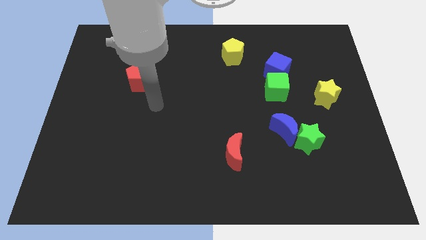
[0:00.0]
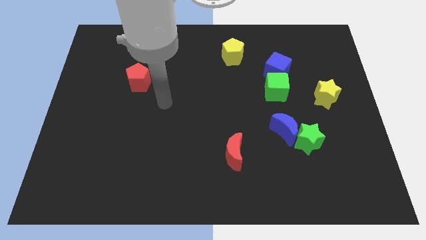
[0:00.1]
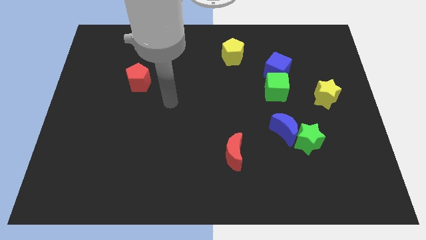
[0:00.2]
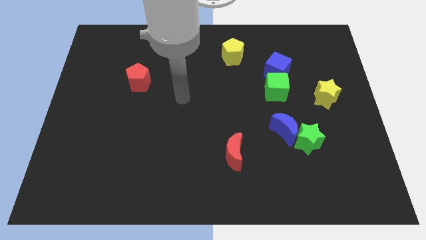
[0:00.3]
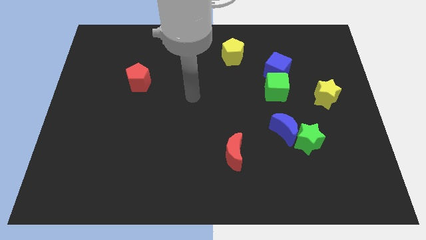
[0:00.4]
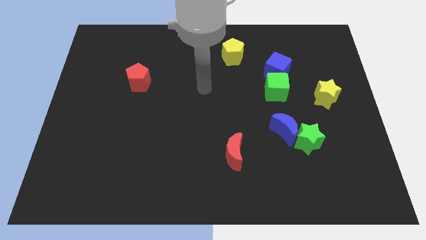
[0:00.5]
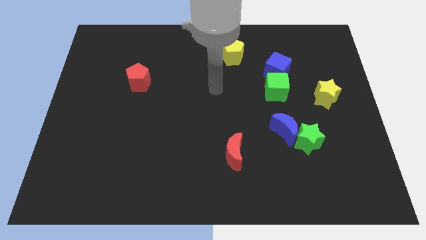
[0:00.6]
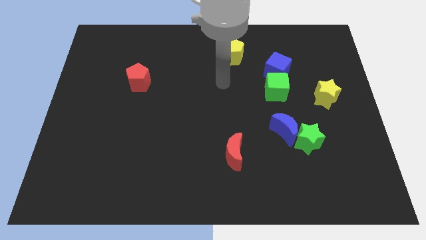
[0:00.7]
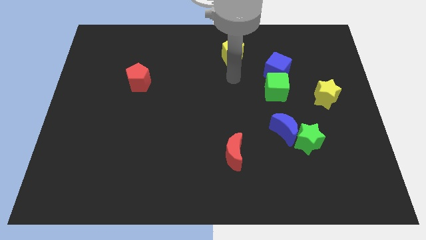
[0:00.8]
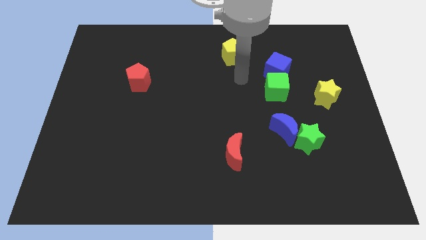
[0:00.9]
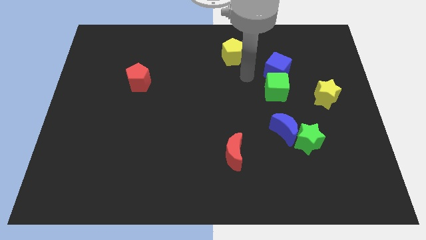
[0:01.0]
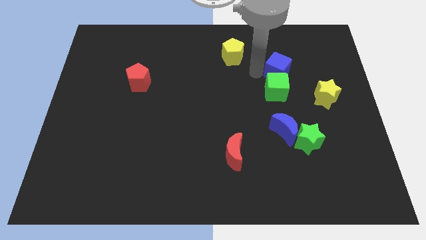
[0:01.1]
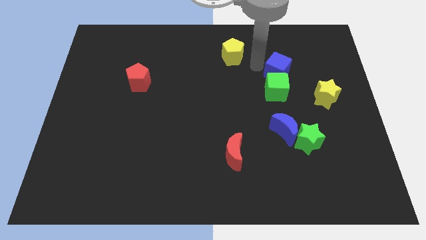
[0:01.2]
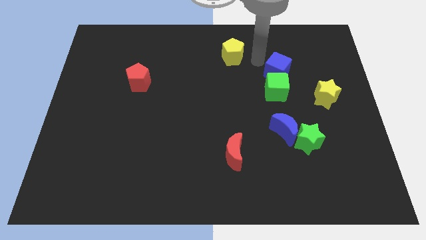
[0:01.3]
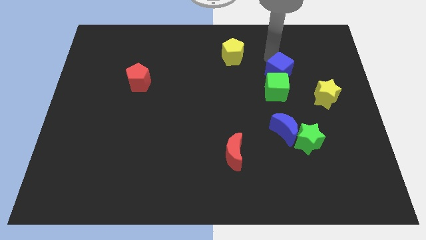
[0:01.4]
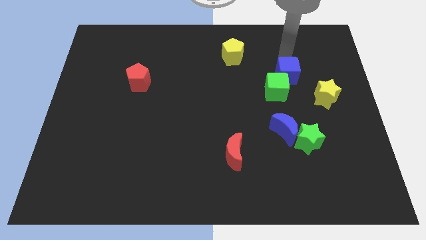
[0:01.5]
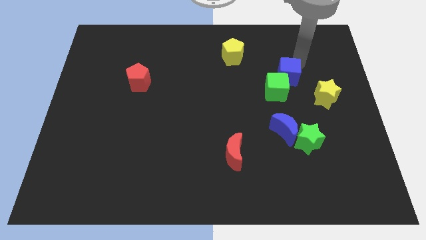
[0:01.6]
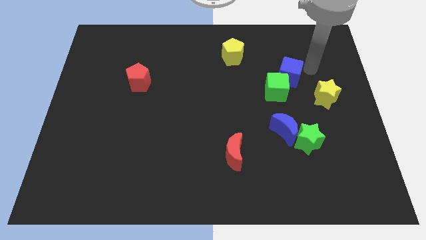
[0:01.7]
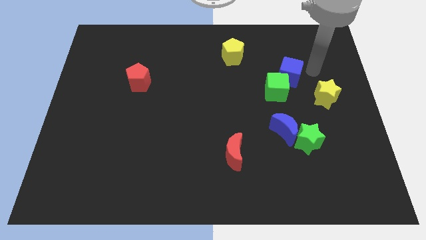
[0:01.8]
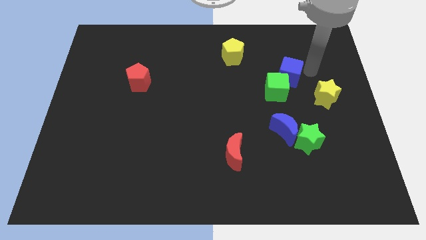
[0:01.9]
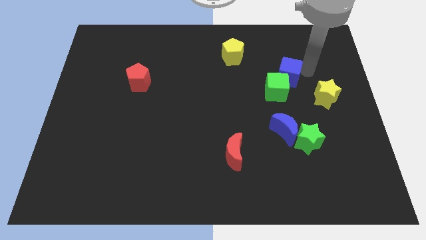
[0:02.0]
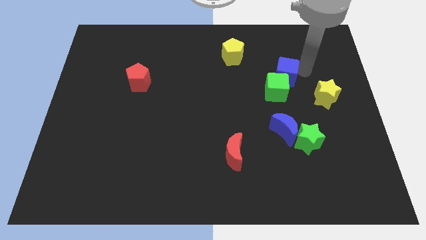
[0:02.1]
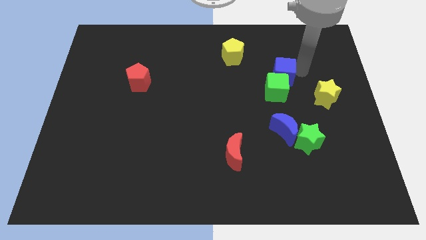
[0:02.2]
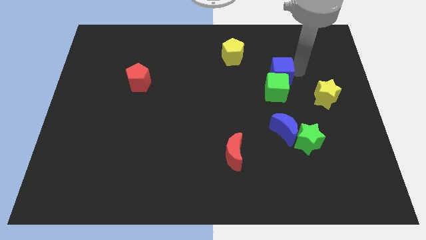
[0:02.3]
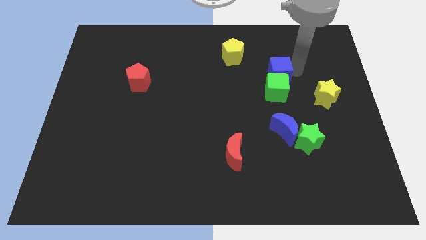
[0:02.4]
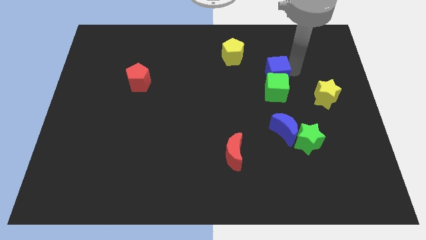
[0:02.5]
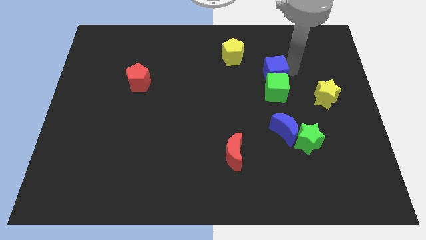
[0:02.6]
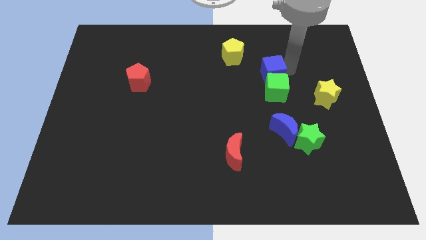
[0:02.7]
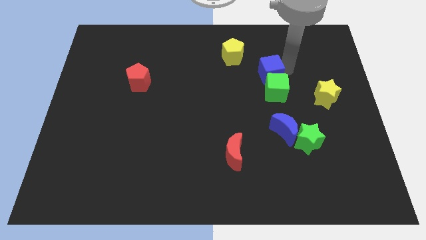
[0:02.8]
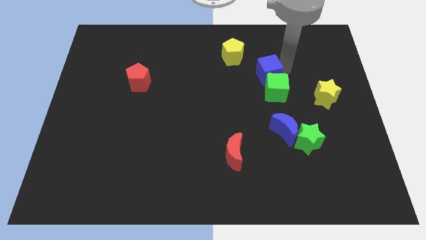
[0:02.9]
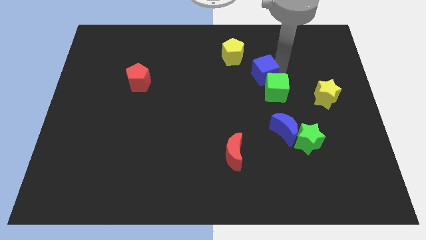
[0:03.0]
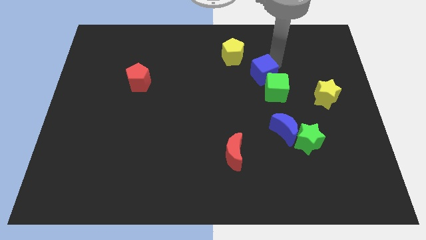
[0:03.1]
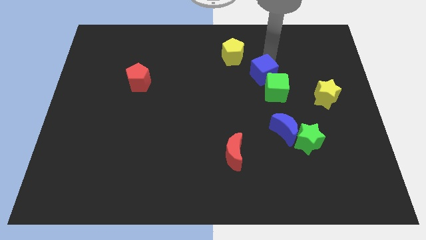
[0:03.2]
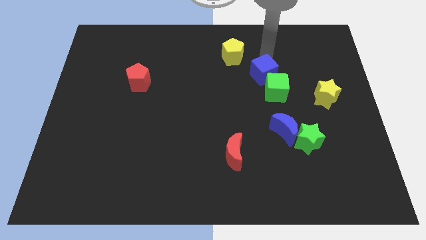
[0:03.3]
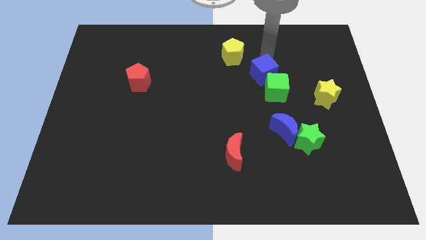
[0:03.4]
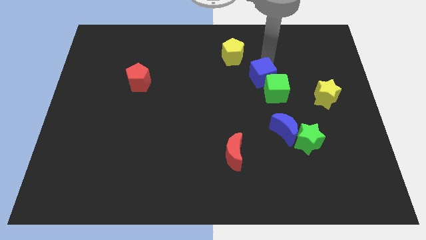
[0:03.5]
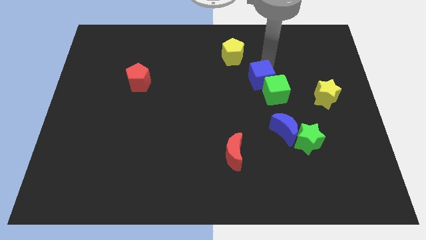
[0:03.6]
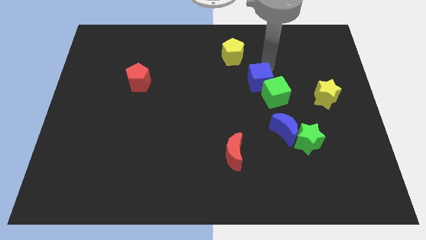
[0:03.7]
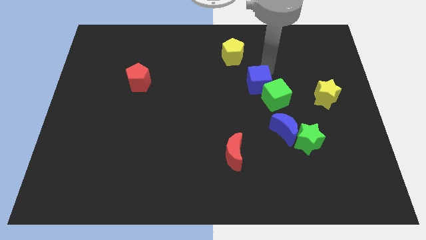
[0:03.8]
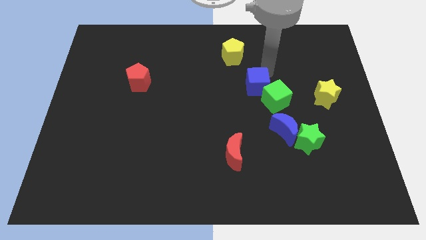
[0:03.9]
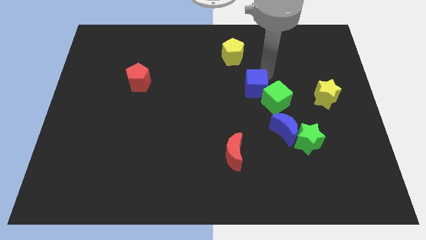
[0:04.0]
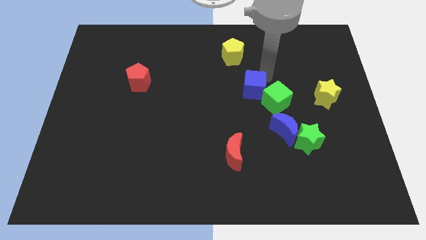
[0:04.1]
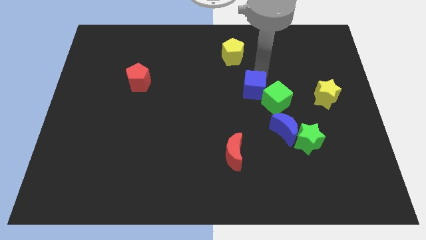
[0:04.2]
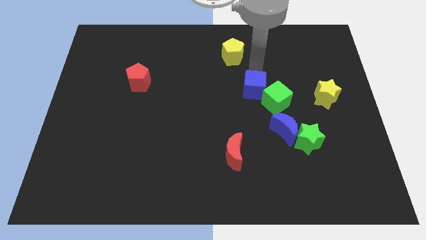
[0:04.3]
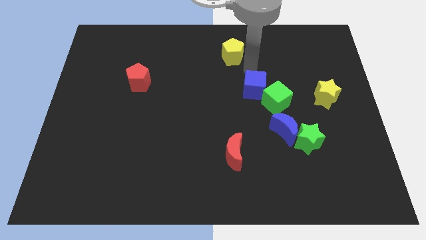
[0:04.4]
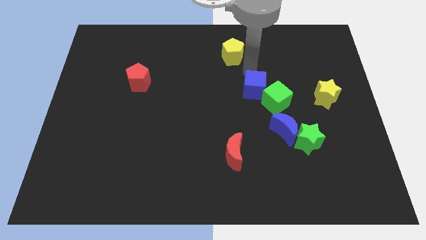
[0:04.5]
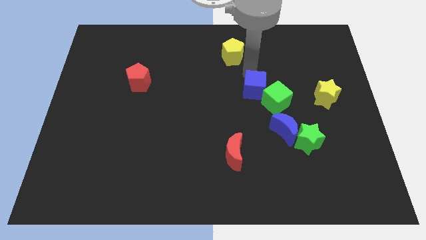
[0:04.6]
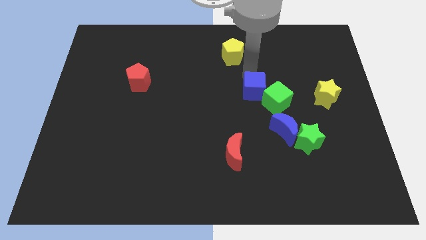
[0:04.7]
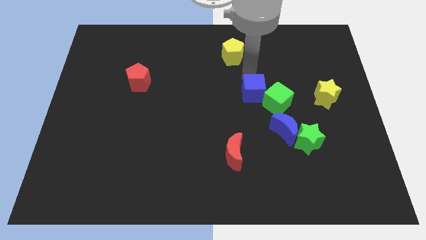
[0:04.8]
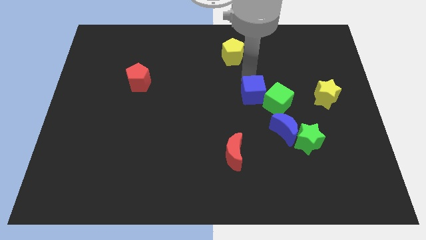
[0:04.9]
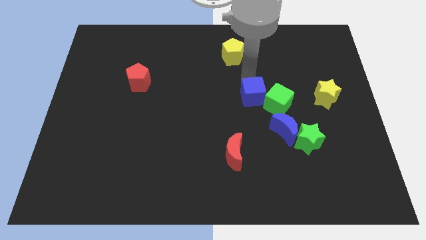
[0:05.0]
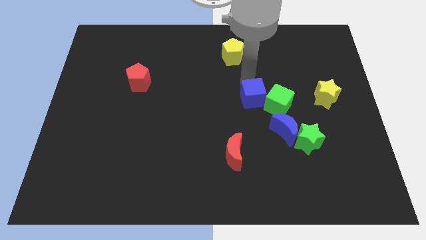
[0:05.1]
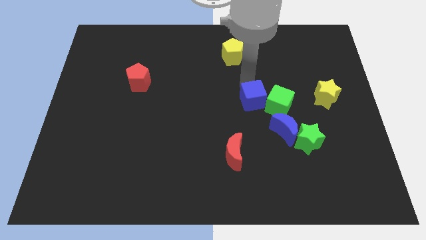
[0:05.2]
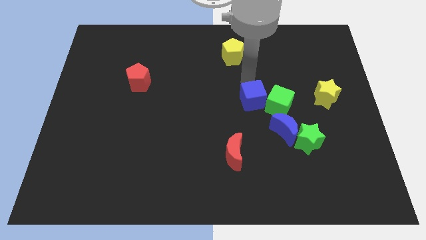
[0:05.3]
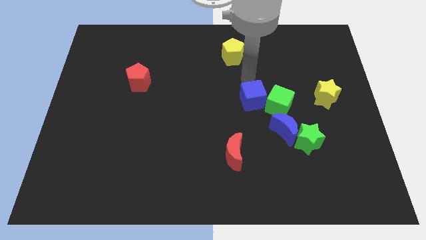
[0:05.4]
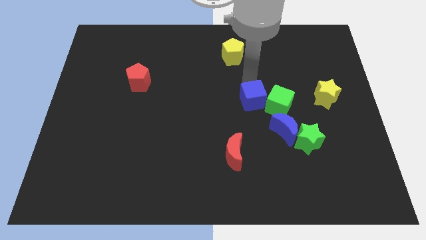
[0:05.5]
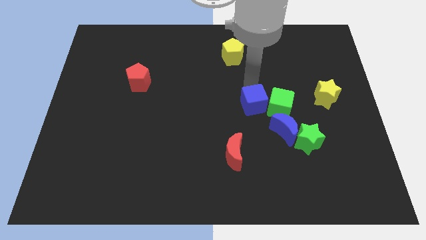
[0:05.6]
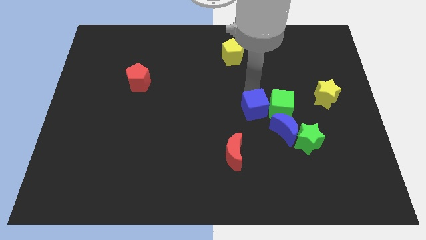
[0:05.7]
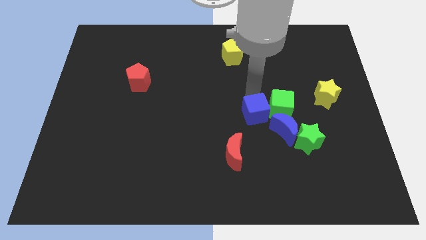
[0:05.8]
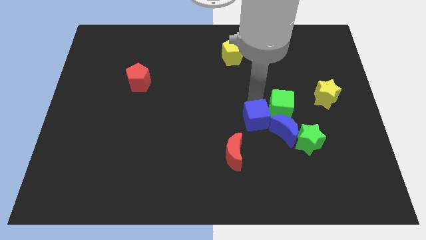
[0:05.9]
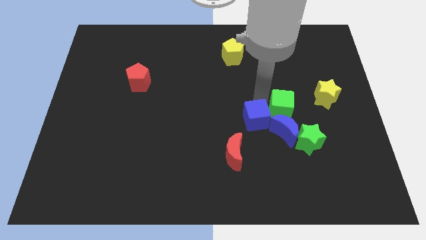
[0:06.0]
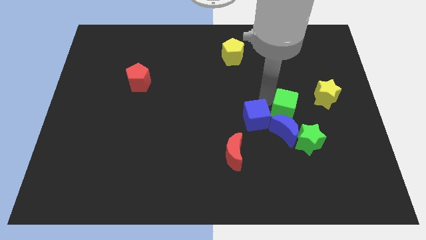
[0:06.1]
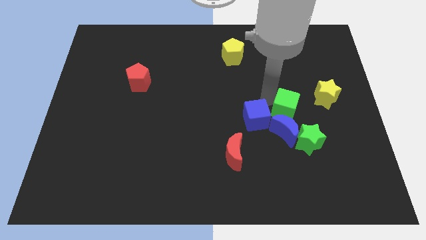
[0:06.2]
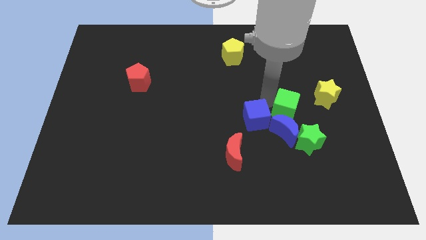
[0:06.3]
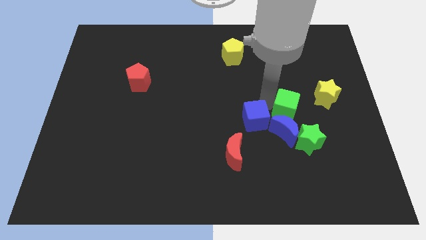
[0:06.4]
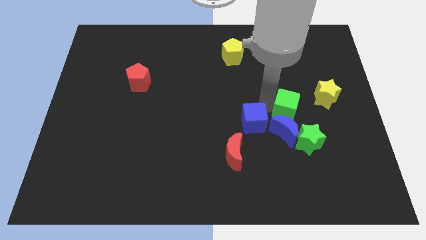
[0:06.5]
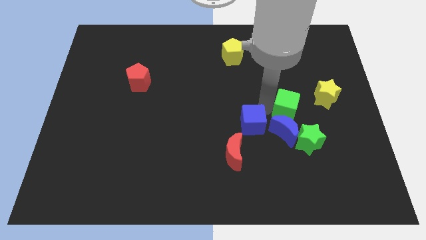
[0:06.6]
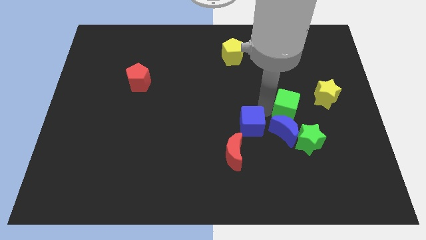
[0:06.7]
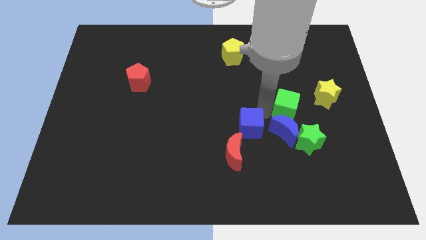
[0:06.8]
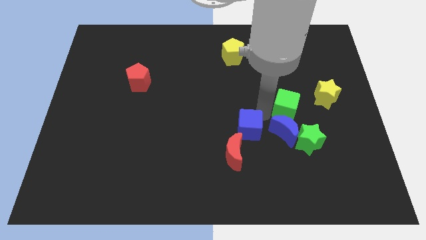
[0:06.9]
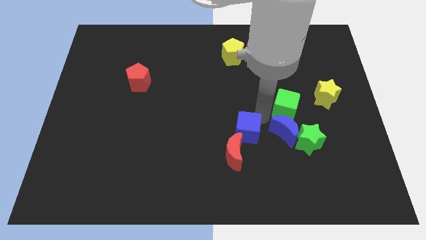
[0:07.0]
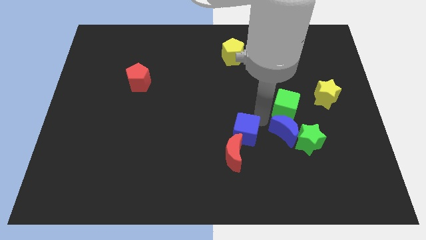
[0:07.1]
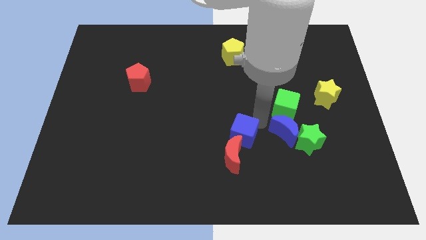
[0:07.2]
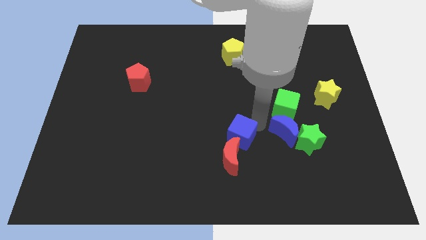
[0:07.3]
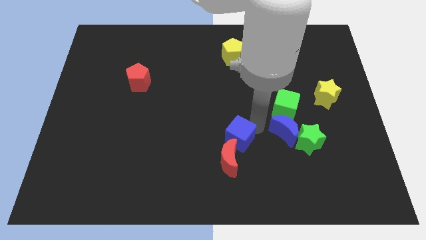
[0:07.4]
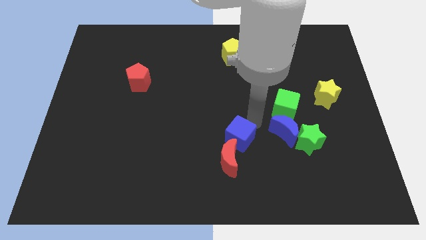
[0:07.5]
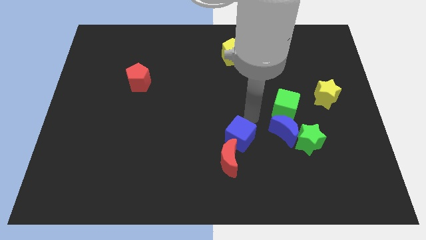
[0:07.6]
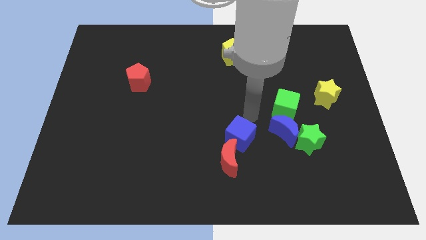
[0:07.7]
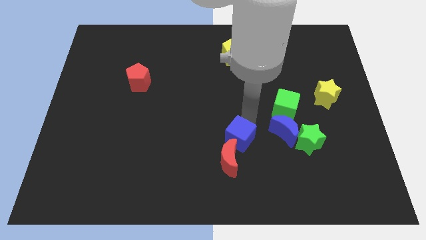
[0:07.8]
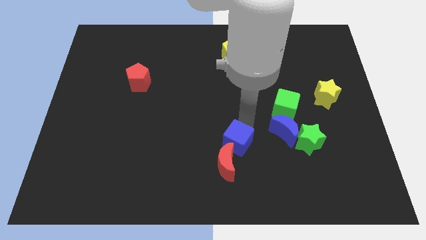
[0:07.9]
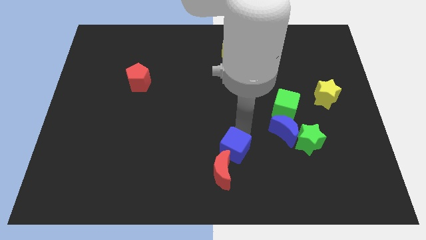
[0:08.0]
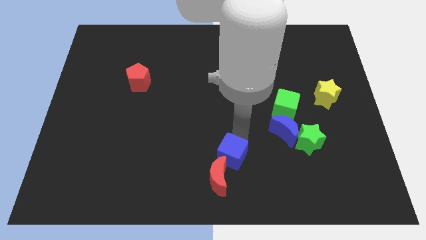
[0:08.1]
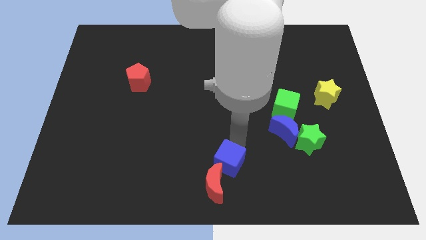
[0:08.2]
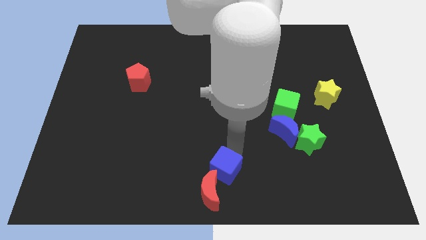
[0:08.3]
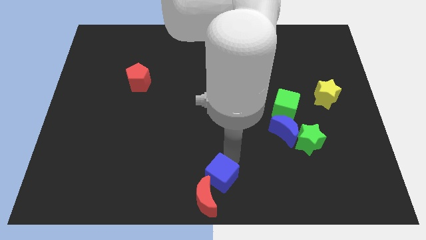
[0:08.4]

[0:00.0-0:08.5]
push the blue cube close to the red moon
